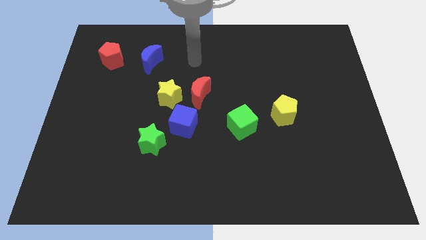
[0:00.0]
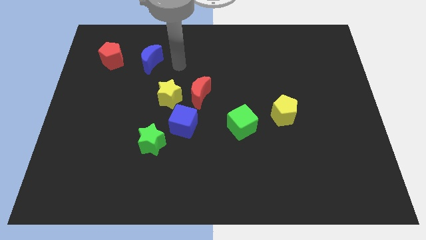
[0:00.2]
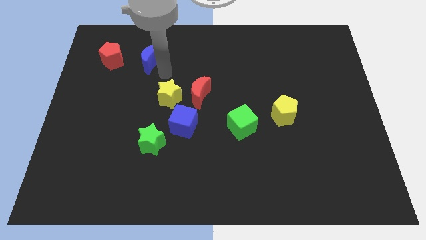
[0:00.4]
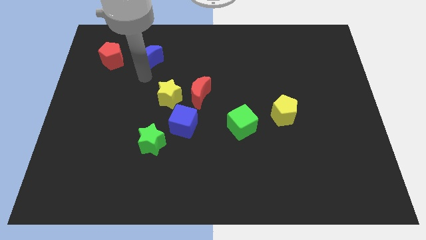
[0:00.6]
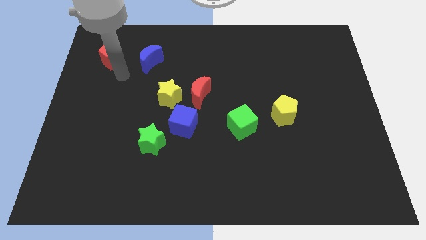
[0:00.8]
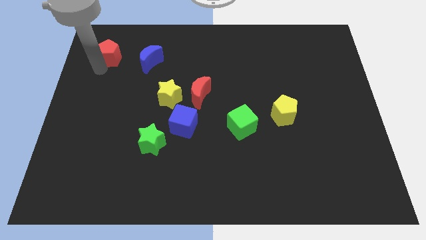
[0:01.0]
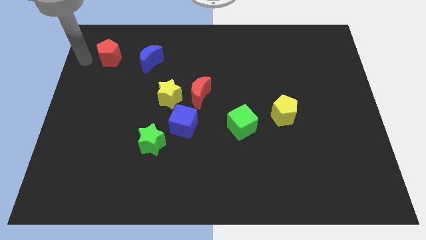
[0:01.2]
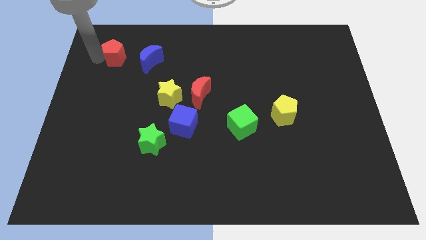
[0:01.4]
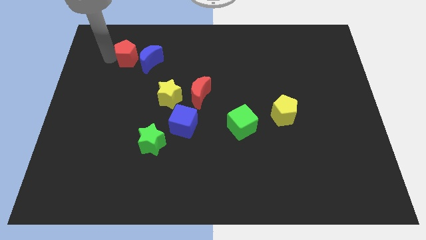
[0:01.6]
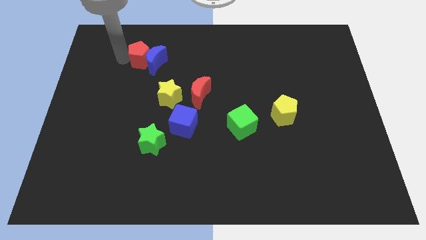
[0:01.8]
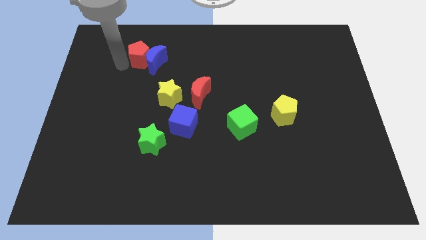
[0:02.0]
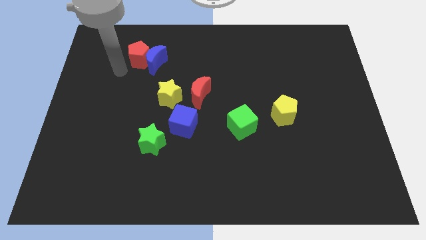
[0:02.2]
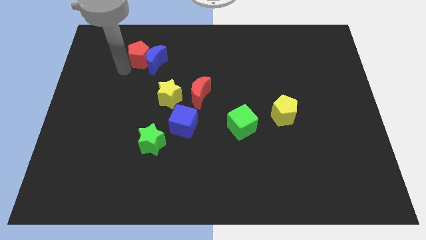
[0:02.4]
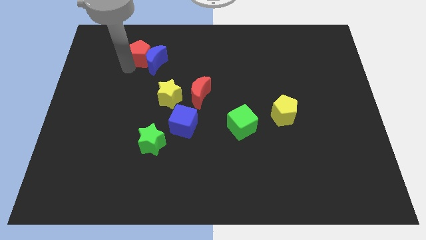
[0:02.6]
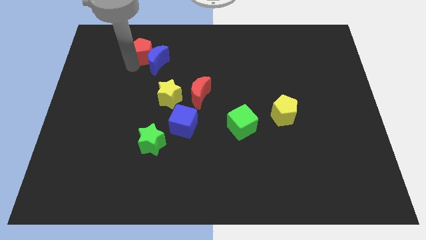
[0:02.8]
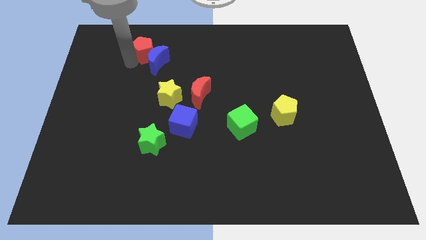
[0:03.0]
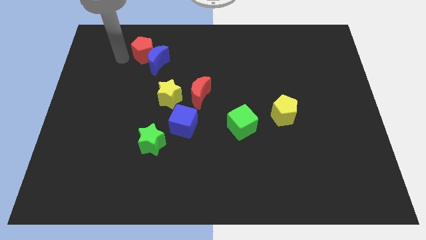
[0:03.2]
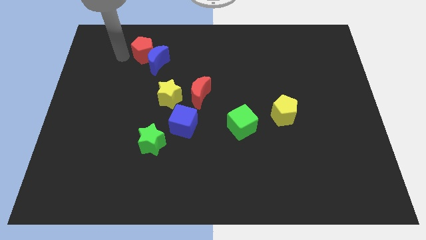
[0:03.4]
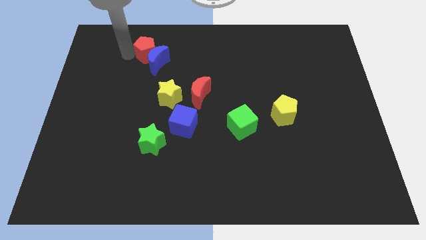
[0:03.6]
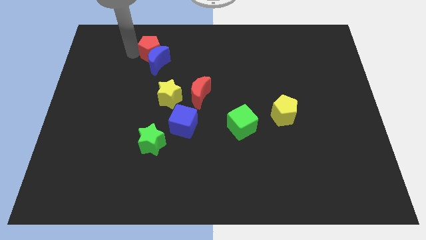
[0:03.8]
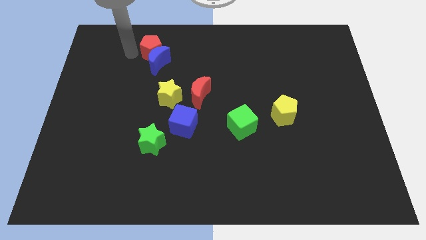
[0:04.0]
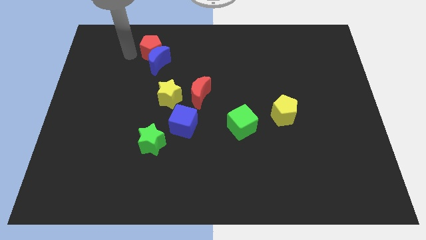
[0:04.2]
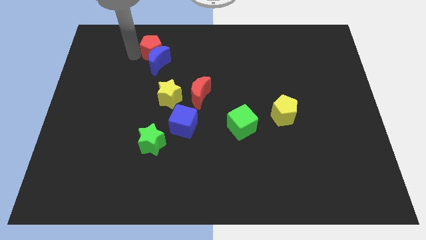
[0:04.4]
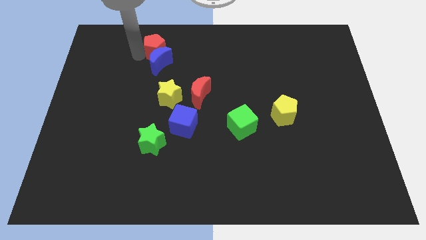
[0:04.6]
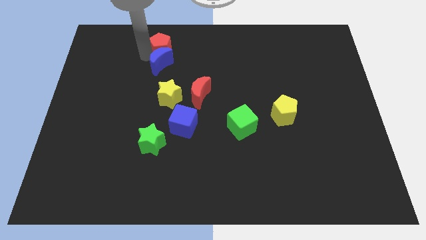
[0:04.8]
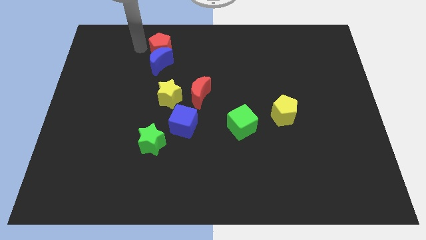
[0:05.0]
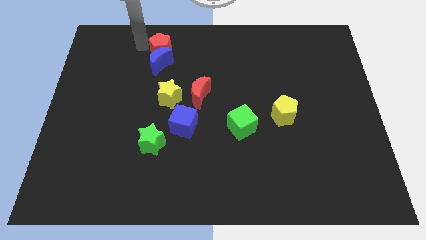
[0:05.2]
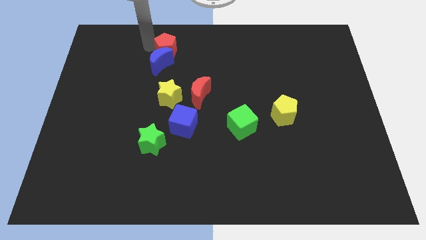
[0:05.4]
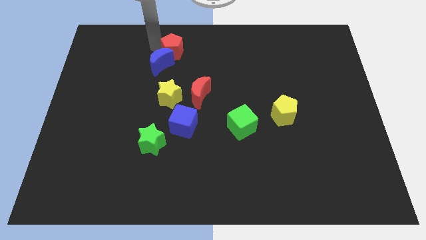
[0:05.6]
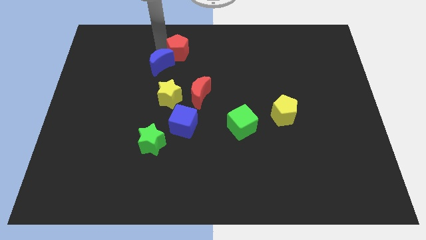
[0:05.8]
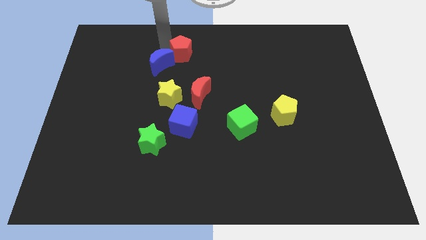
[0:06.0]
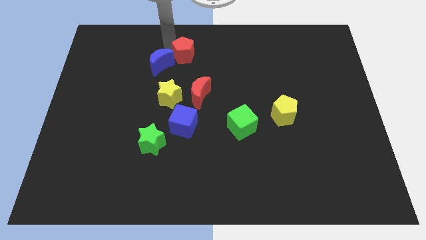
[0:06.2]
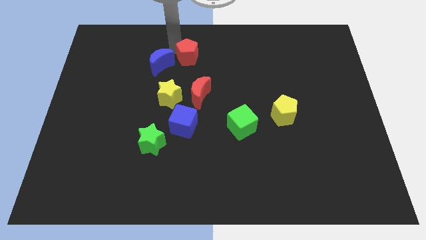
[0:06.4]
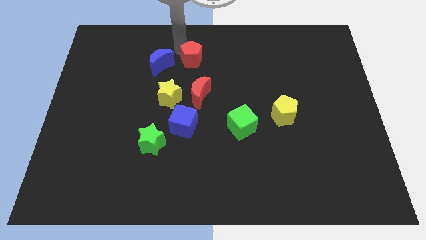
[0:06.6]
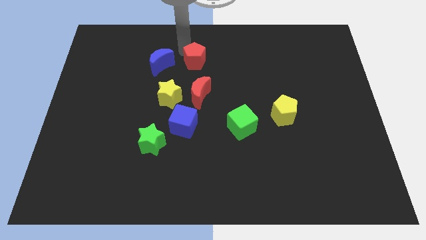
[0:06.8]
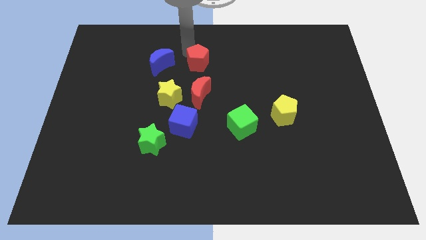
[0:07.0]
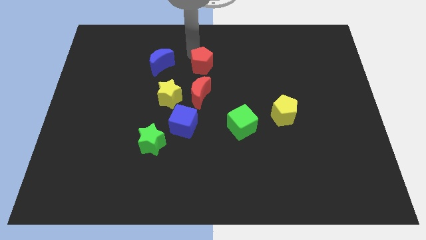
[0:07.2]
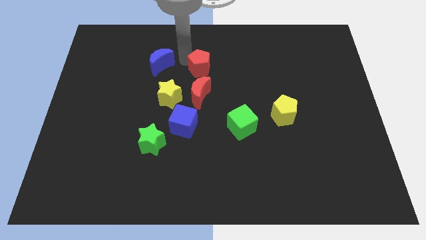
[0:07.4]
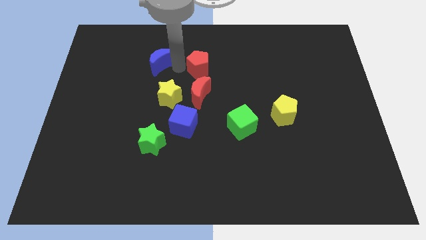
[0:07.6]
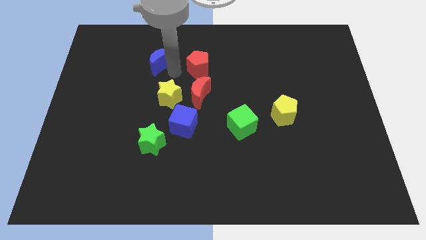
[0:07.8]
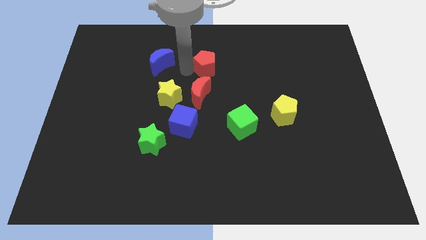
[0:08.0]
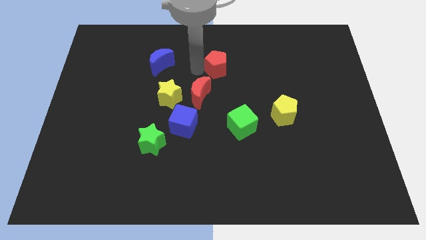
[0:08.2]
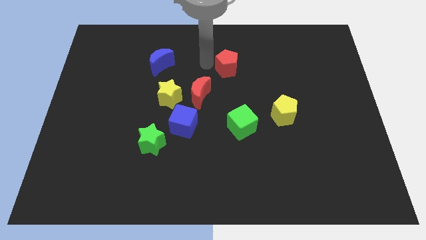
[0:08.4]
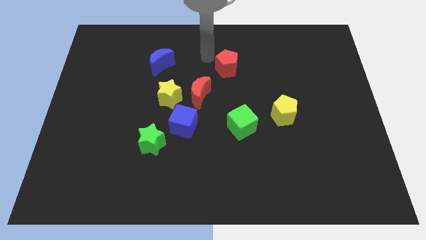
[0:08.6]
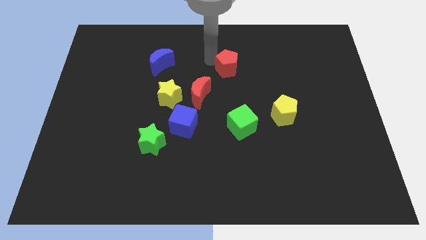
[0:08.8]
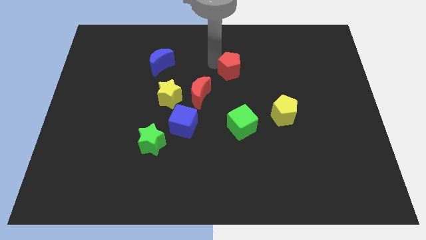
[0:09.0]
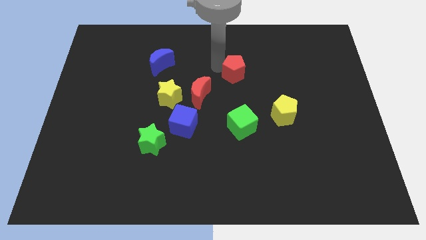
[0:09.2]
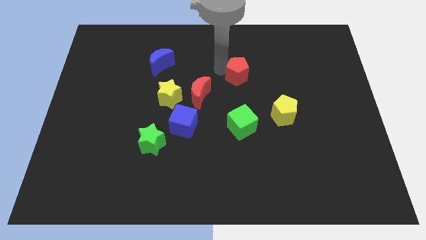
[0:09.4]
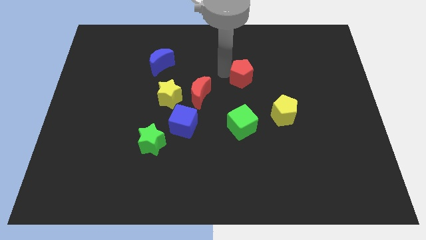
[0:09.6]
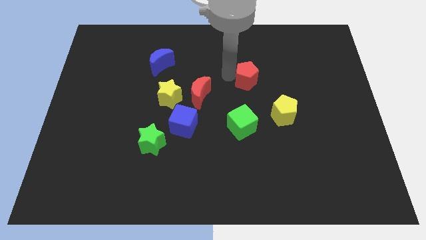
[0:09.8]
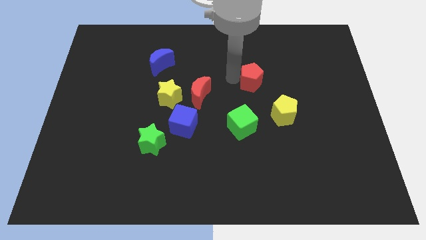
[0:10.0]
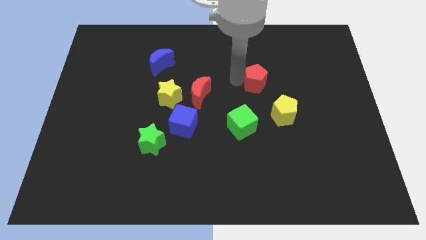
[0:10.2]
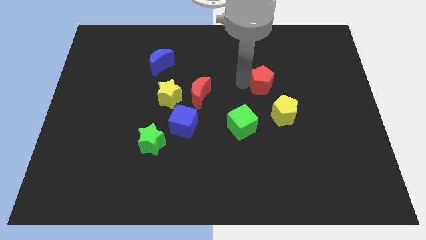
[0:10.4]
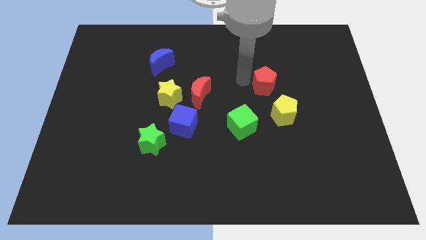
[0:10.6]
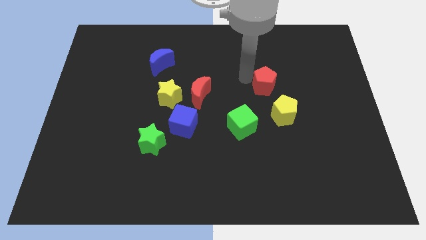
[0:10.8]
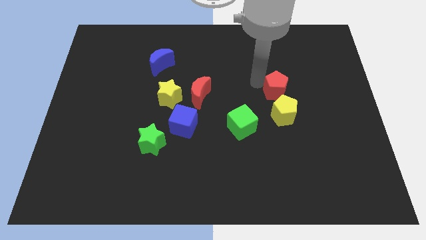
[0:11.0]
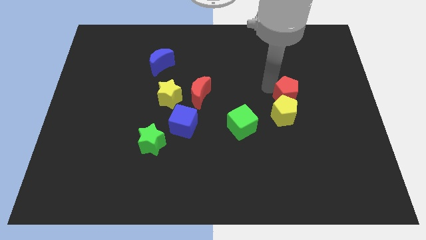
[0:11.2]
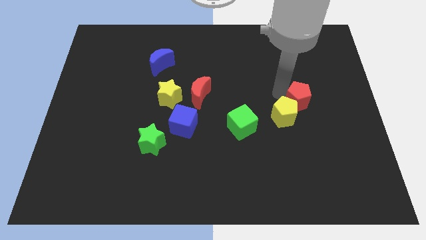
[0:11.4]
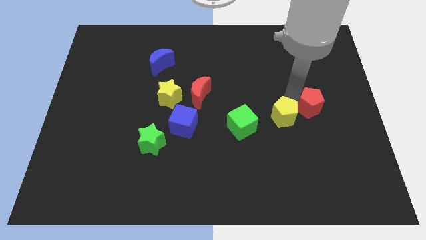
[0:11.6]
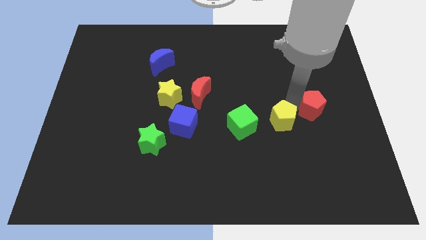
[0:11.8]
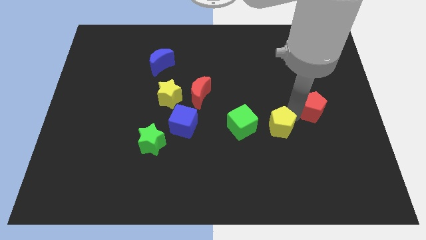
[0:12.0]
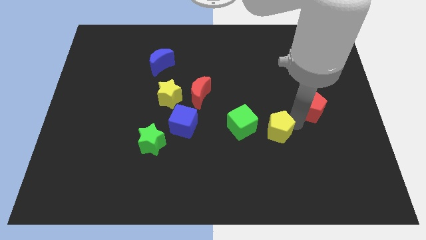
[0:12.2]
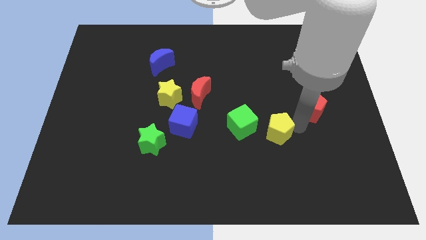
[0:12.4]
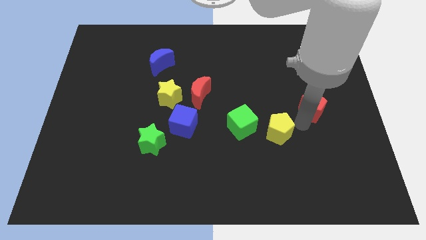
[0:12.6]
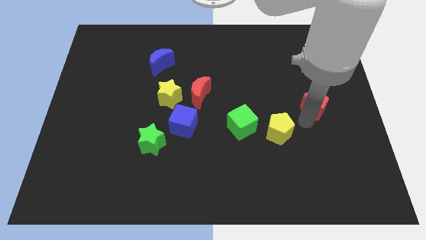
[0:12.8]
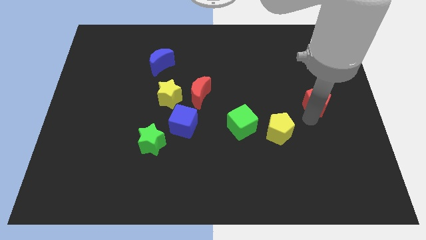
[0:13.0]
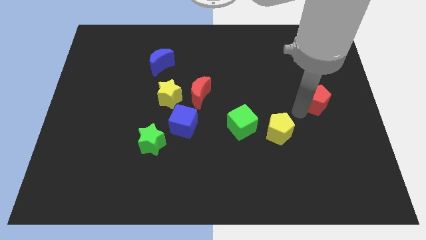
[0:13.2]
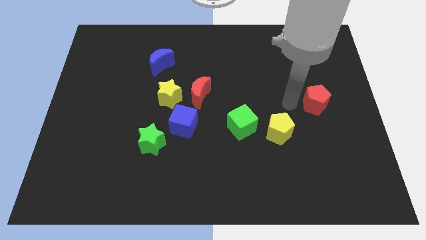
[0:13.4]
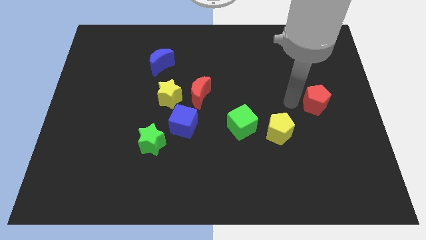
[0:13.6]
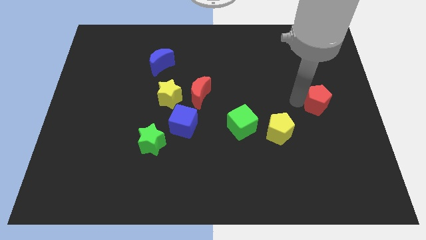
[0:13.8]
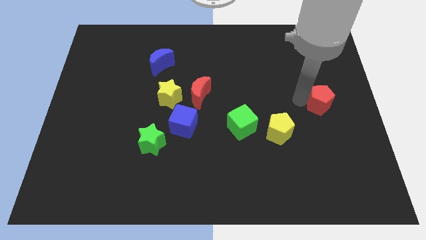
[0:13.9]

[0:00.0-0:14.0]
move the red pentagon to the center right
